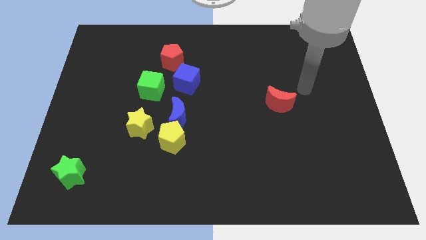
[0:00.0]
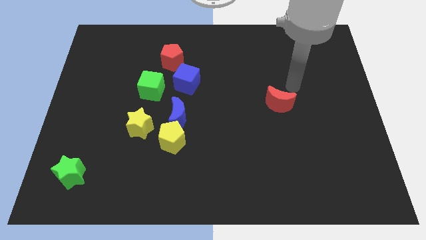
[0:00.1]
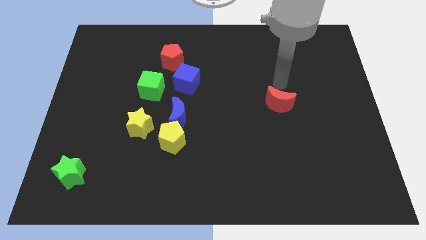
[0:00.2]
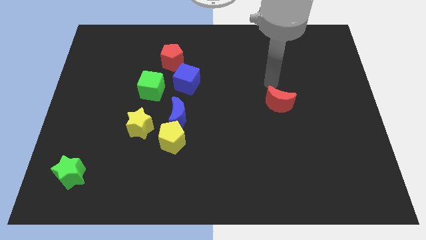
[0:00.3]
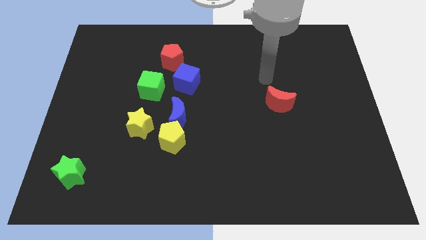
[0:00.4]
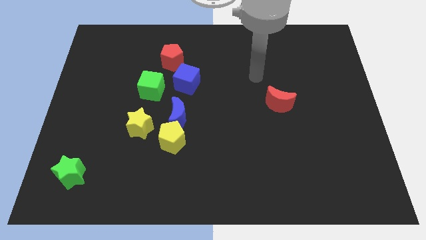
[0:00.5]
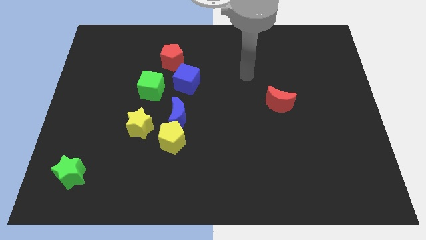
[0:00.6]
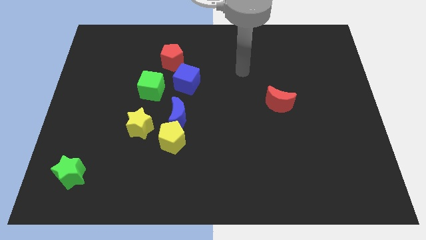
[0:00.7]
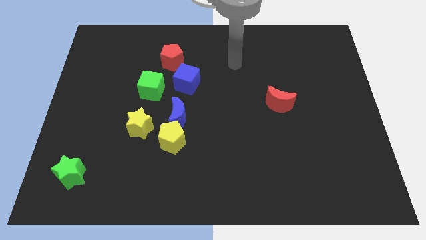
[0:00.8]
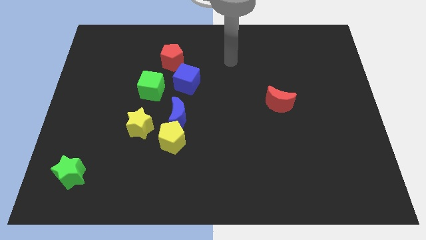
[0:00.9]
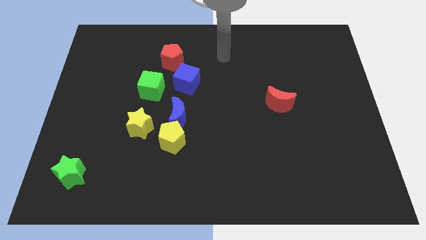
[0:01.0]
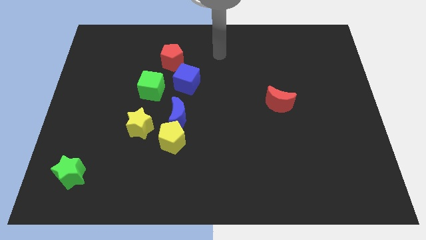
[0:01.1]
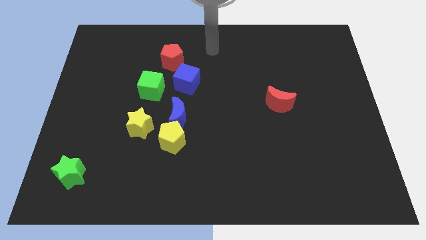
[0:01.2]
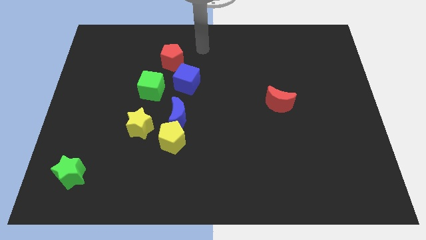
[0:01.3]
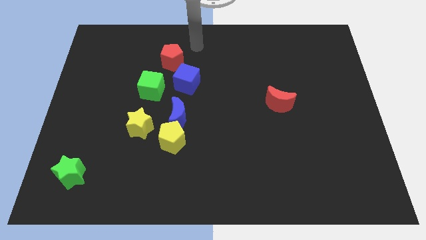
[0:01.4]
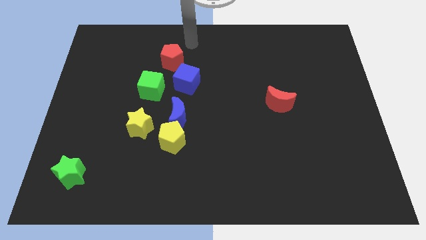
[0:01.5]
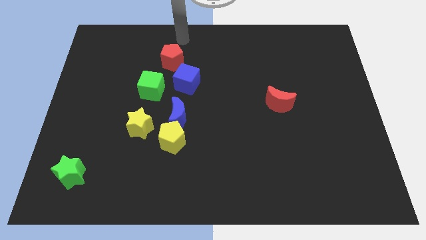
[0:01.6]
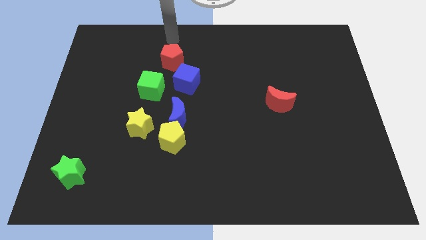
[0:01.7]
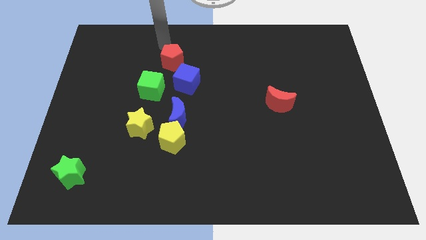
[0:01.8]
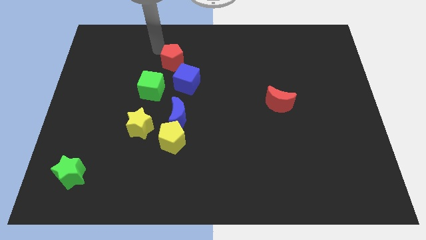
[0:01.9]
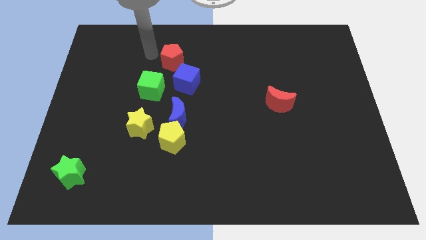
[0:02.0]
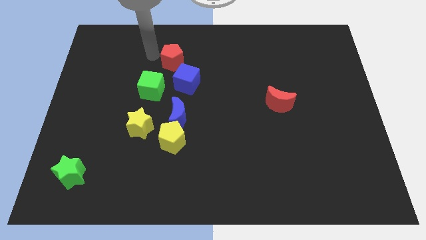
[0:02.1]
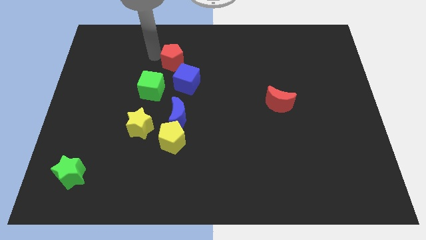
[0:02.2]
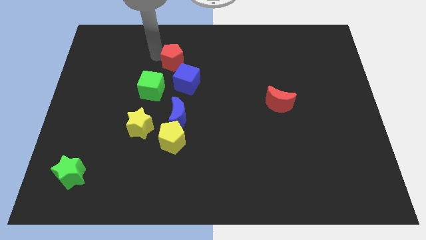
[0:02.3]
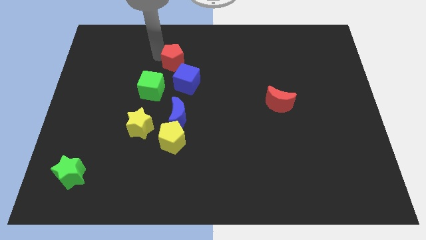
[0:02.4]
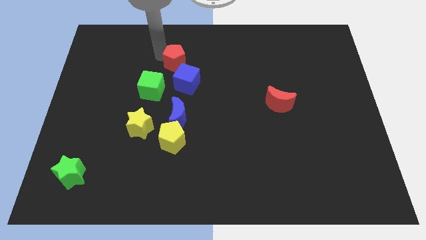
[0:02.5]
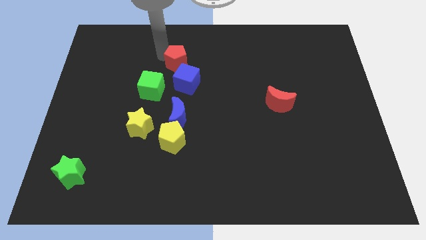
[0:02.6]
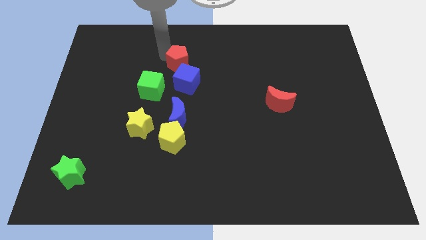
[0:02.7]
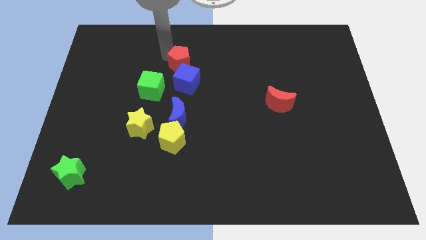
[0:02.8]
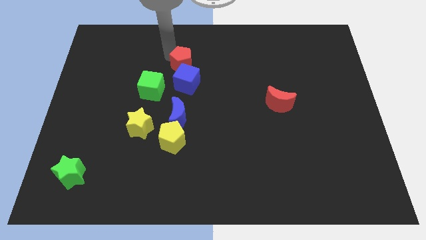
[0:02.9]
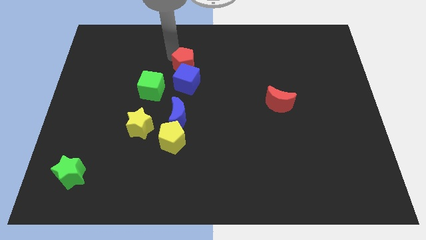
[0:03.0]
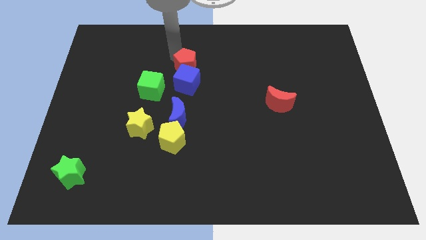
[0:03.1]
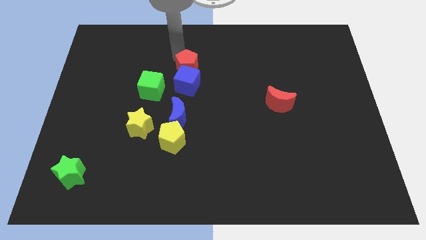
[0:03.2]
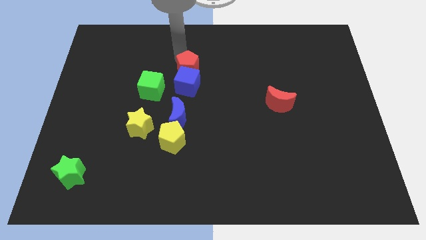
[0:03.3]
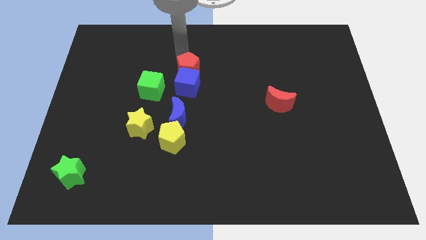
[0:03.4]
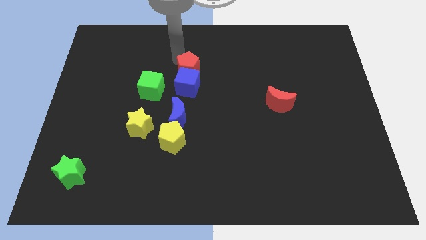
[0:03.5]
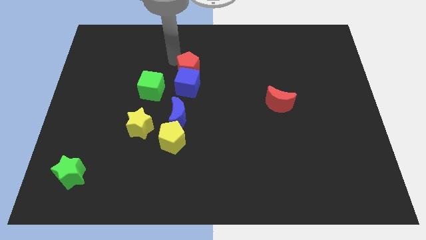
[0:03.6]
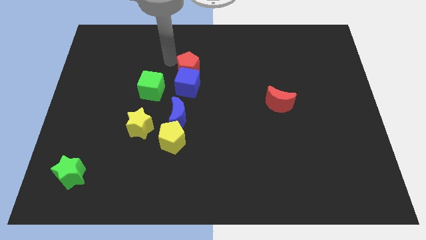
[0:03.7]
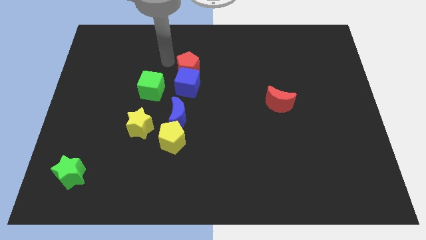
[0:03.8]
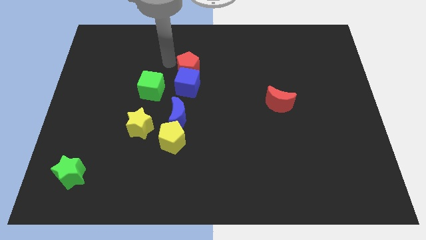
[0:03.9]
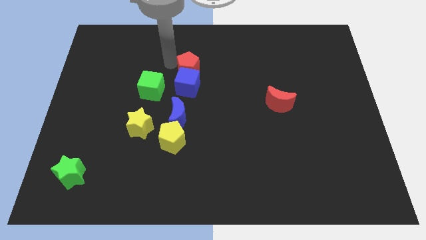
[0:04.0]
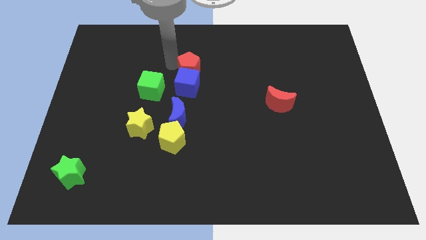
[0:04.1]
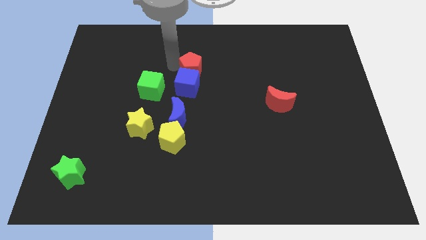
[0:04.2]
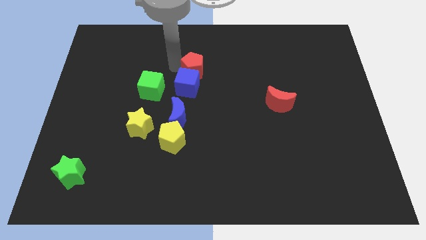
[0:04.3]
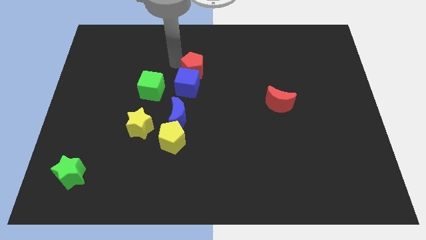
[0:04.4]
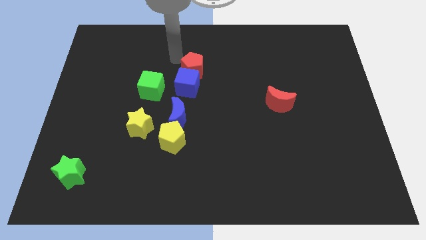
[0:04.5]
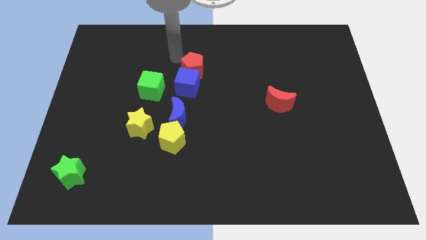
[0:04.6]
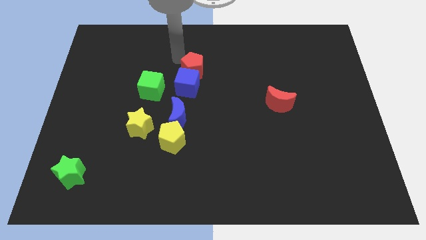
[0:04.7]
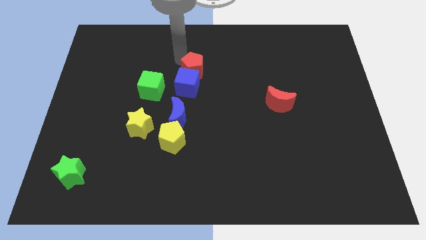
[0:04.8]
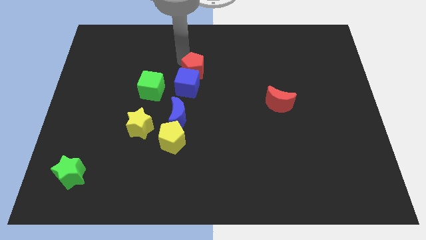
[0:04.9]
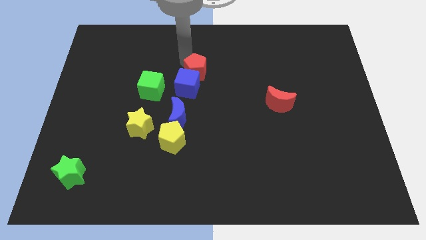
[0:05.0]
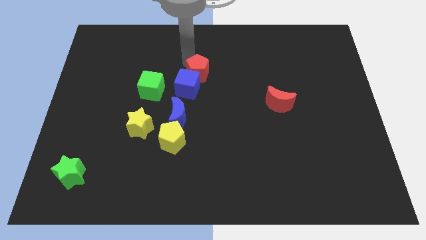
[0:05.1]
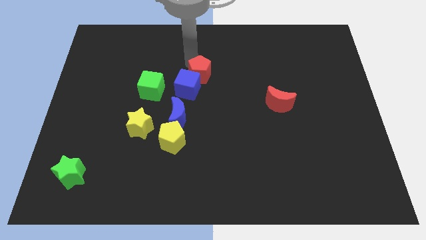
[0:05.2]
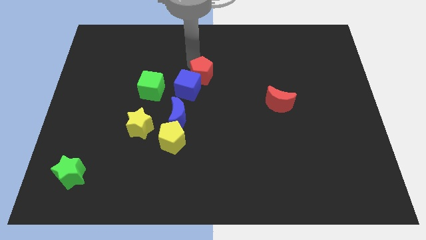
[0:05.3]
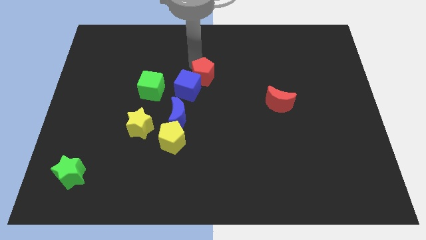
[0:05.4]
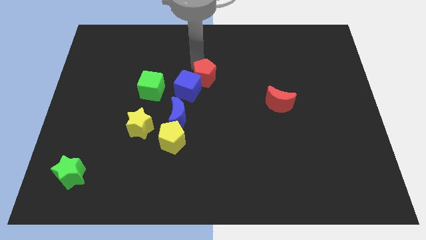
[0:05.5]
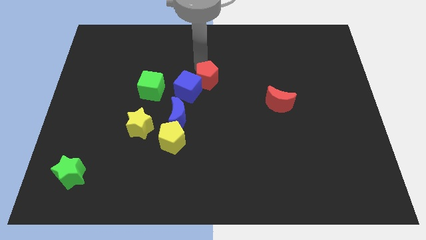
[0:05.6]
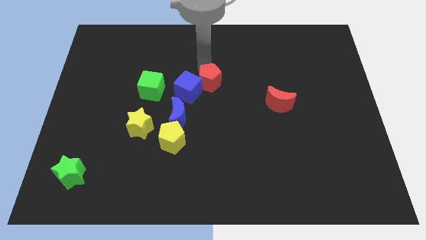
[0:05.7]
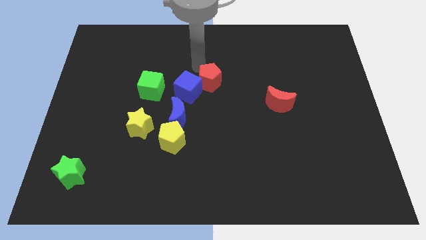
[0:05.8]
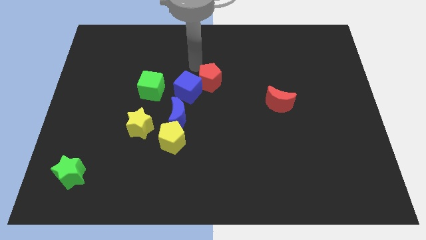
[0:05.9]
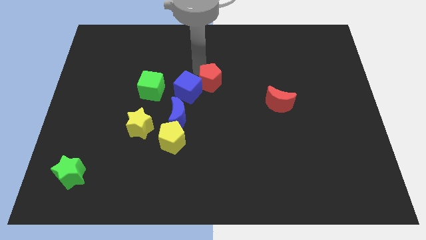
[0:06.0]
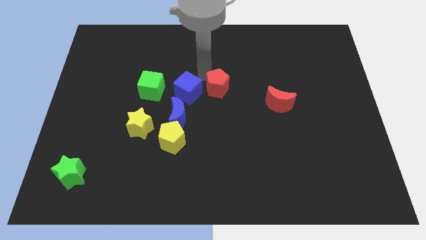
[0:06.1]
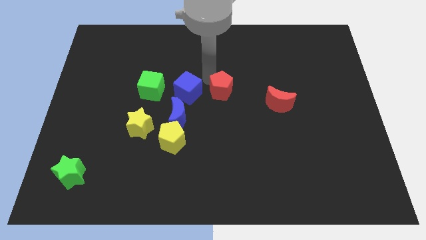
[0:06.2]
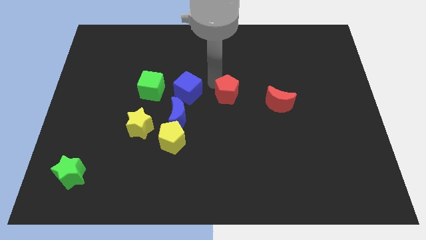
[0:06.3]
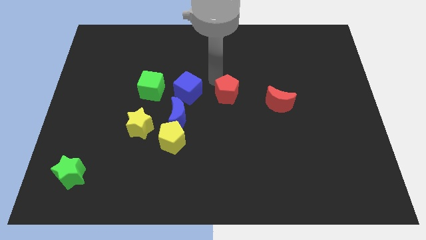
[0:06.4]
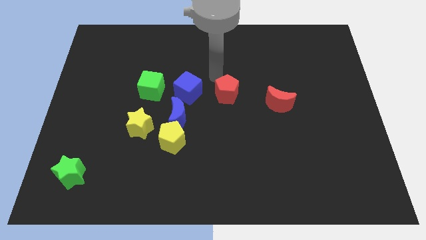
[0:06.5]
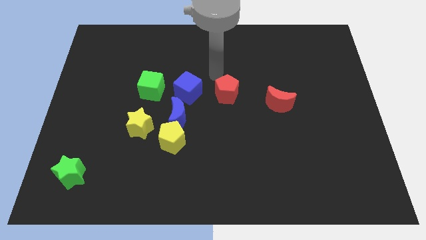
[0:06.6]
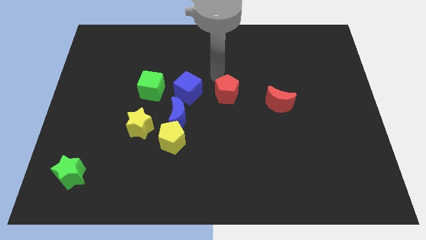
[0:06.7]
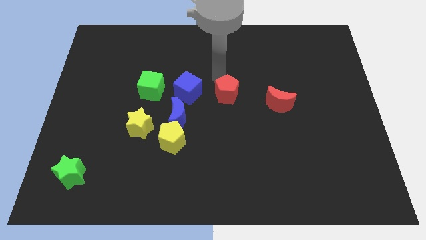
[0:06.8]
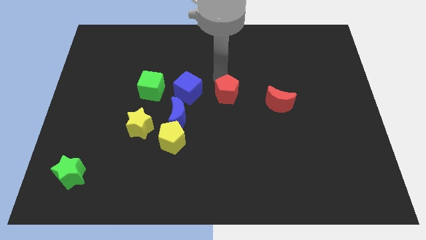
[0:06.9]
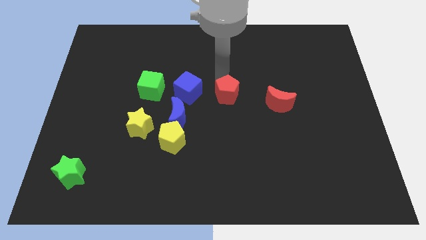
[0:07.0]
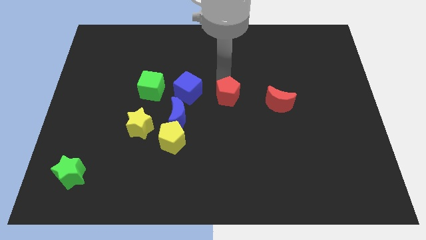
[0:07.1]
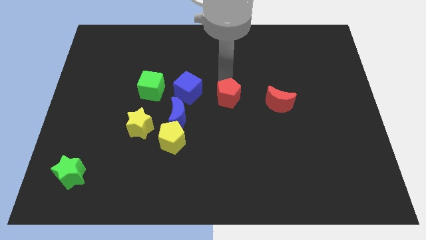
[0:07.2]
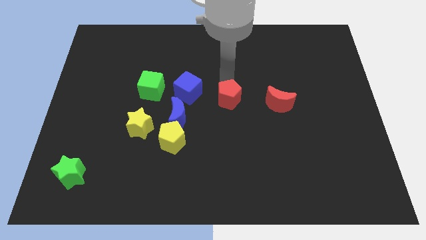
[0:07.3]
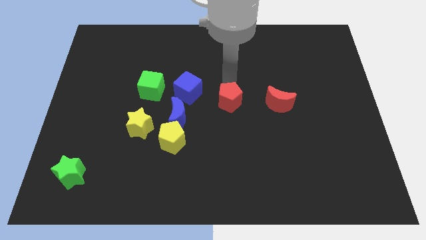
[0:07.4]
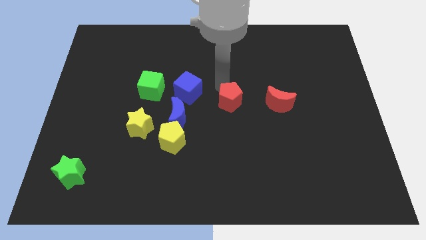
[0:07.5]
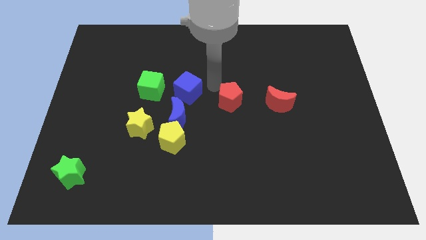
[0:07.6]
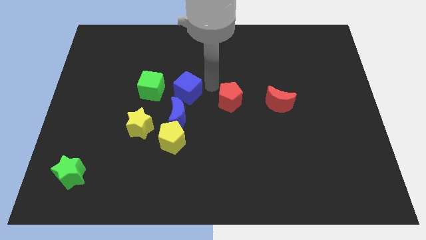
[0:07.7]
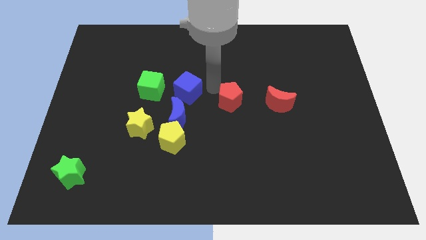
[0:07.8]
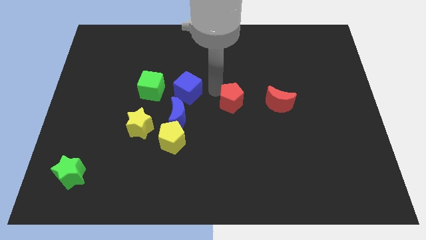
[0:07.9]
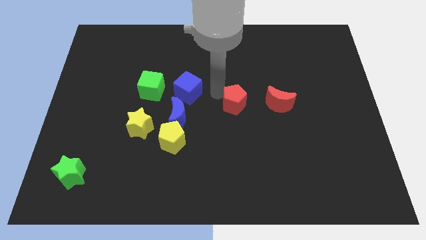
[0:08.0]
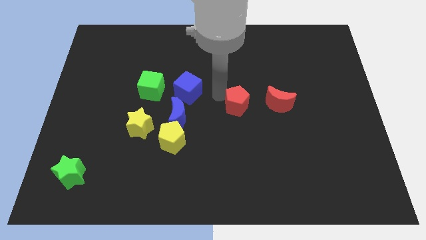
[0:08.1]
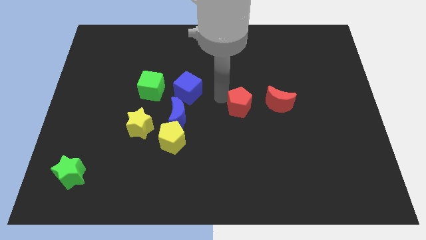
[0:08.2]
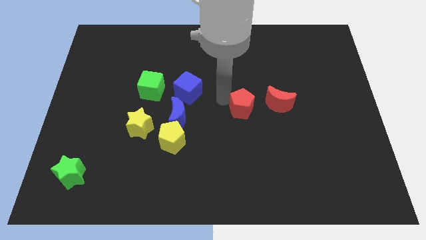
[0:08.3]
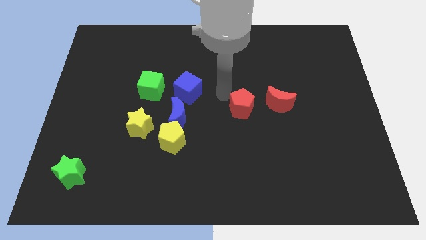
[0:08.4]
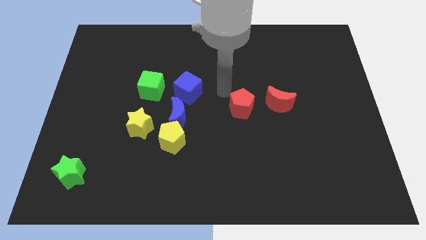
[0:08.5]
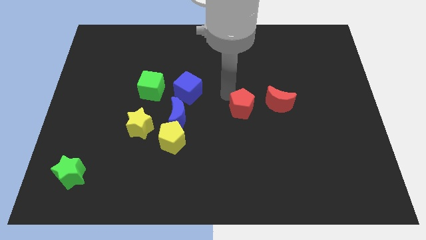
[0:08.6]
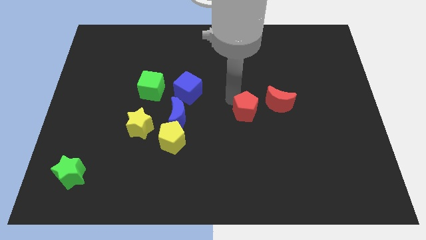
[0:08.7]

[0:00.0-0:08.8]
put the red pentagon to the bottom left side of the red moon
